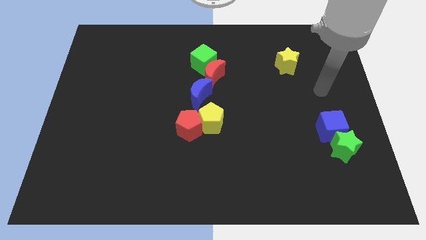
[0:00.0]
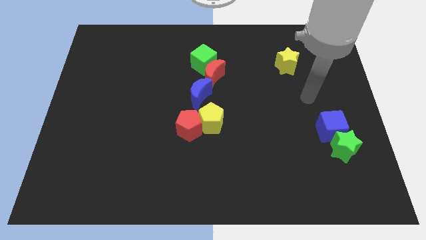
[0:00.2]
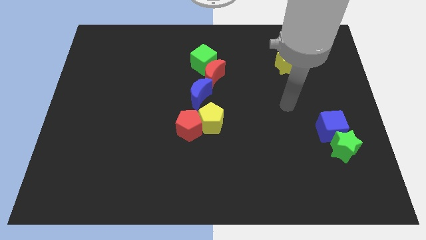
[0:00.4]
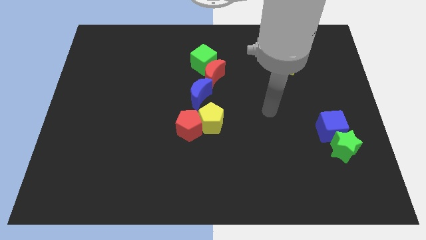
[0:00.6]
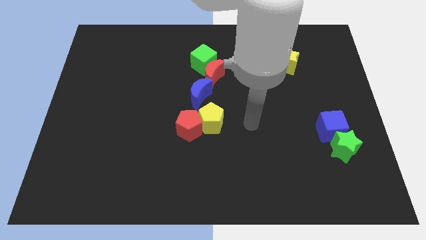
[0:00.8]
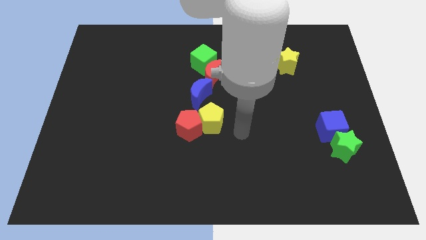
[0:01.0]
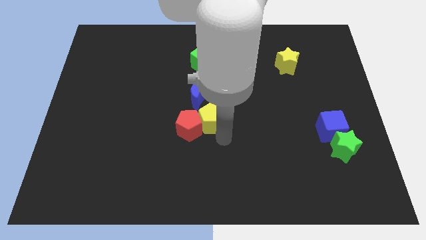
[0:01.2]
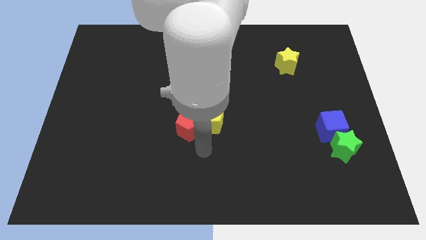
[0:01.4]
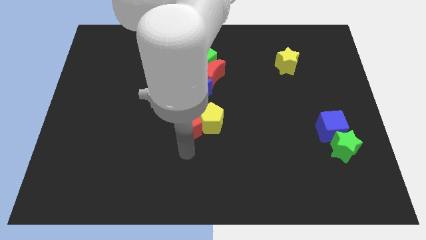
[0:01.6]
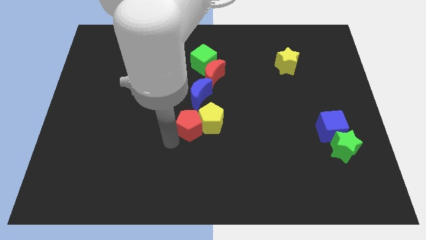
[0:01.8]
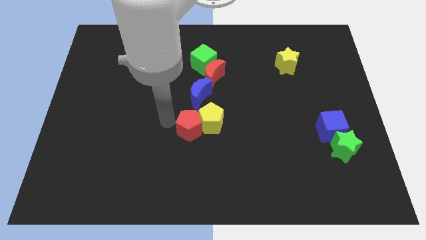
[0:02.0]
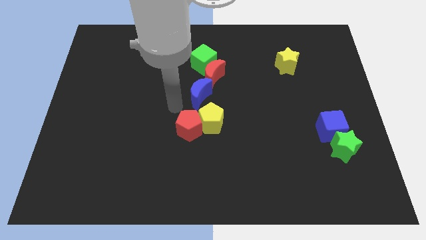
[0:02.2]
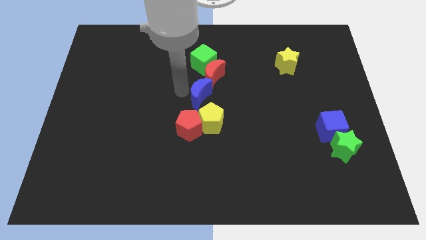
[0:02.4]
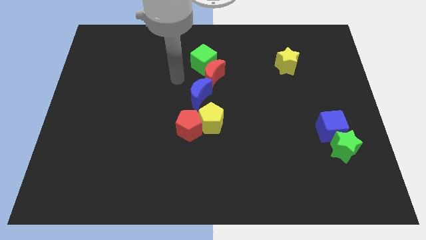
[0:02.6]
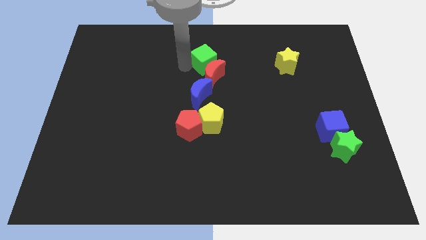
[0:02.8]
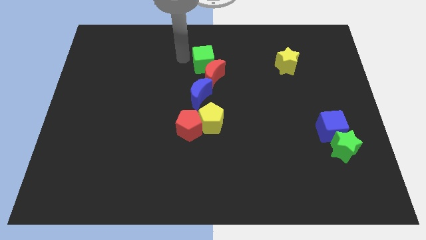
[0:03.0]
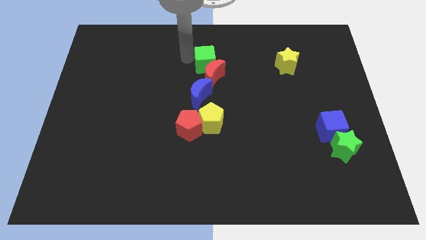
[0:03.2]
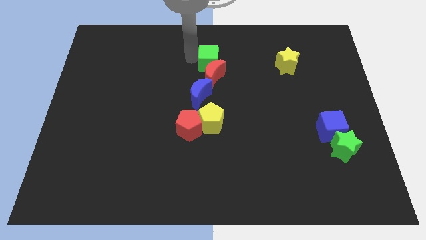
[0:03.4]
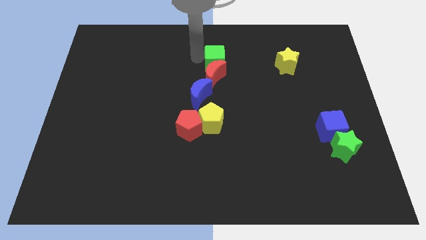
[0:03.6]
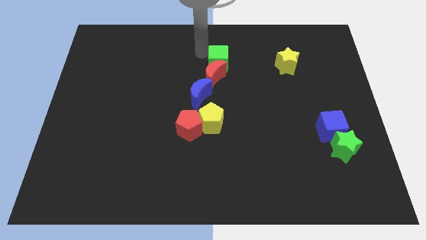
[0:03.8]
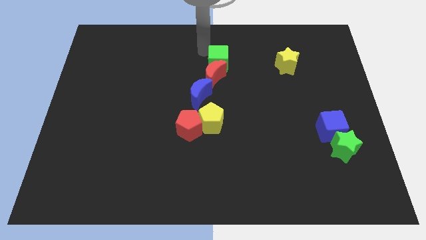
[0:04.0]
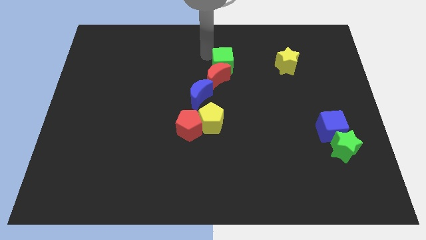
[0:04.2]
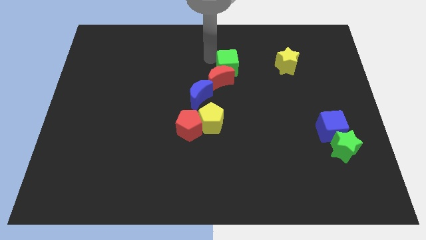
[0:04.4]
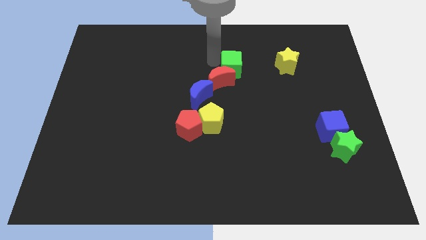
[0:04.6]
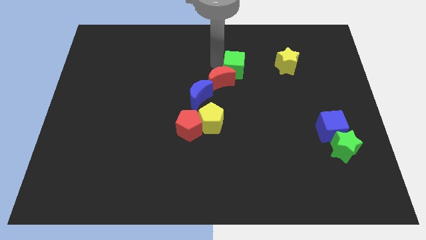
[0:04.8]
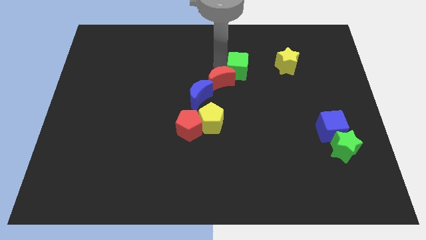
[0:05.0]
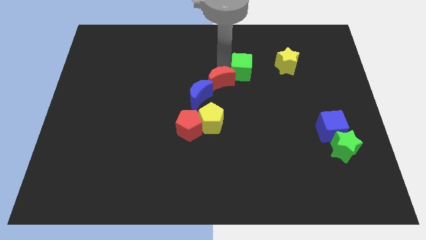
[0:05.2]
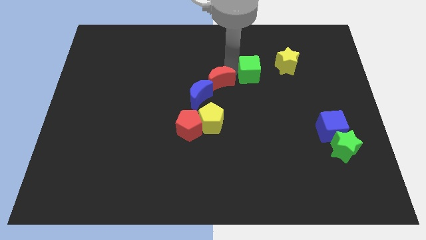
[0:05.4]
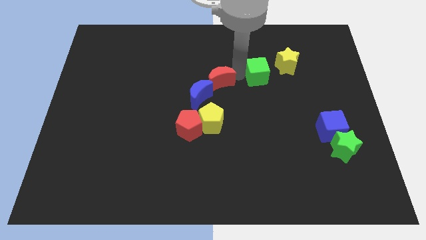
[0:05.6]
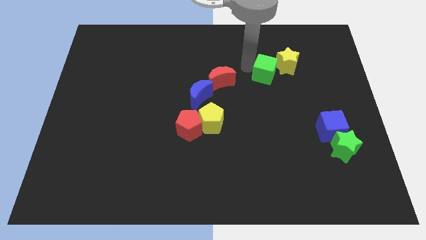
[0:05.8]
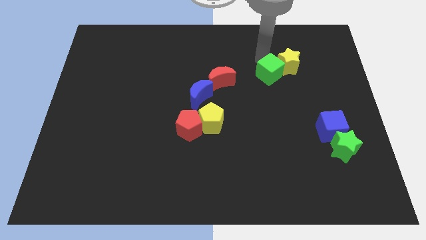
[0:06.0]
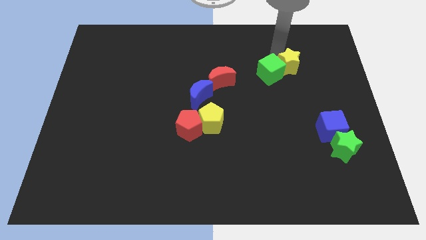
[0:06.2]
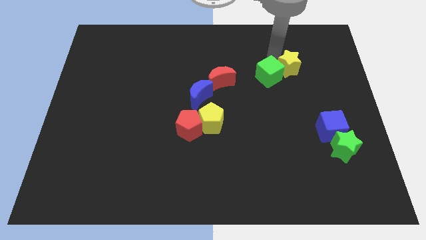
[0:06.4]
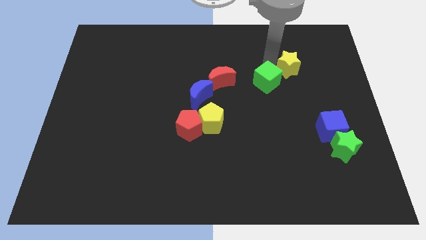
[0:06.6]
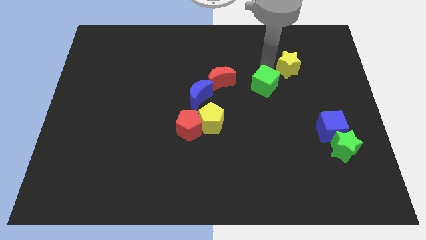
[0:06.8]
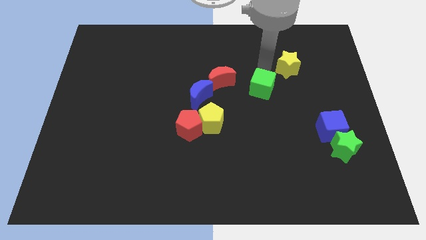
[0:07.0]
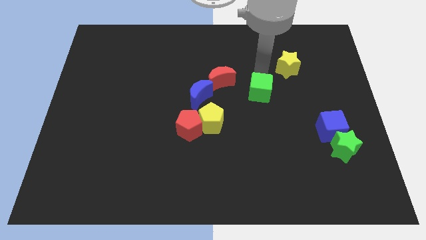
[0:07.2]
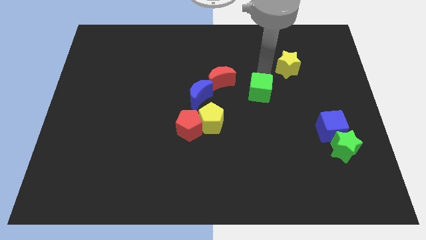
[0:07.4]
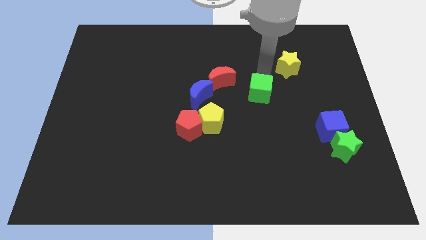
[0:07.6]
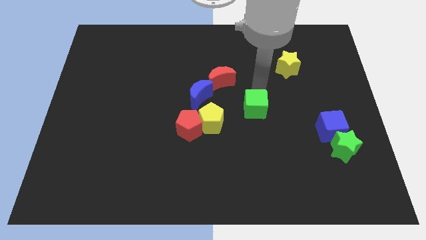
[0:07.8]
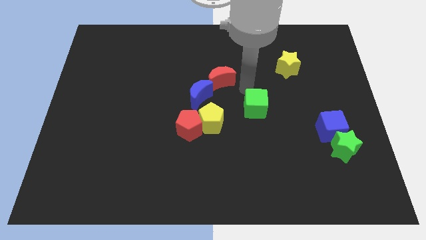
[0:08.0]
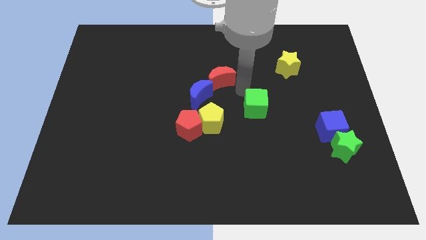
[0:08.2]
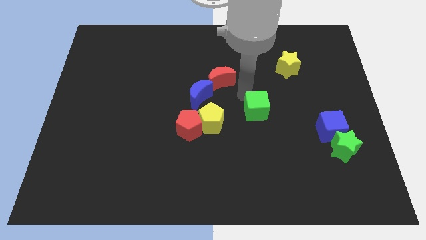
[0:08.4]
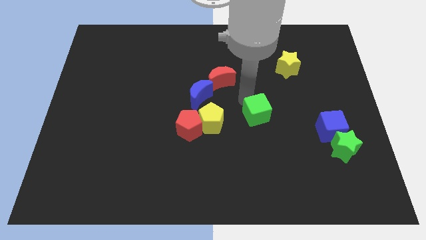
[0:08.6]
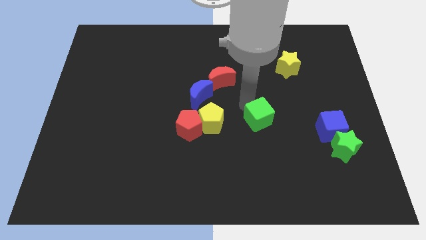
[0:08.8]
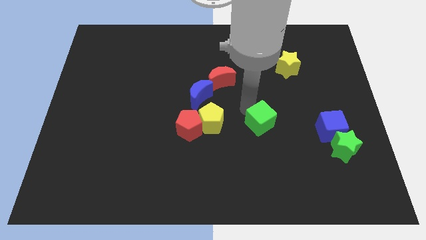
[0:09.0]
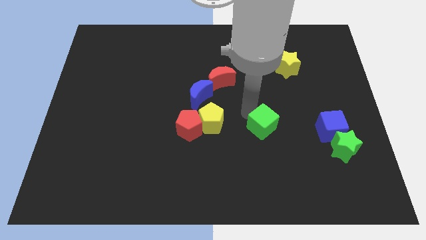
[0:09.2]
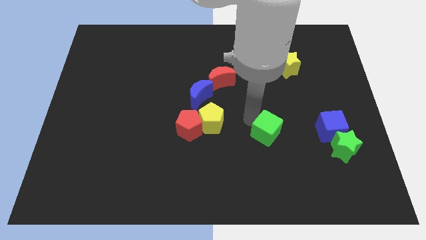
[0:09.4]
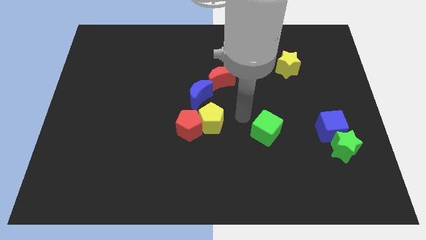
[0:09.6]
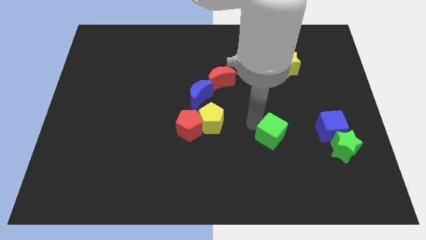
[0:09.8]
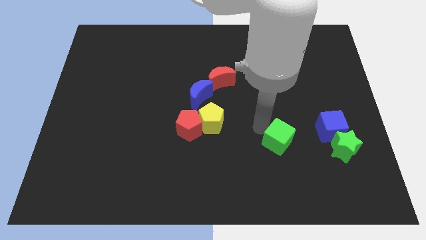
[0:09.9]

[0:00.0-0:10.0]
push the green cube left of the green star

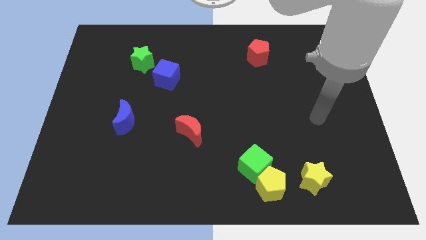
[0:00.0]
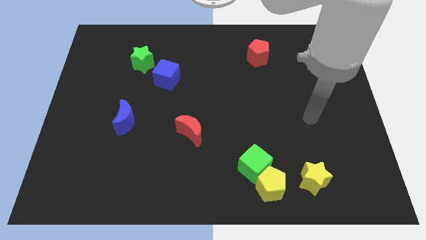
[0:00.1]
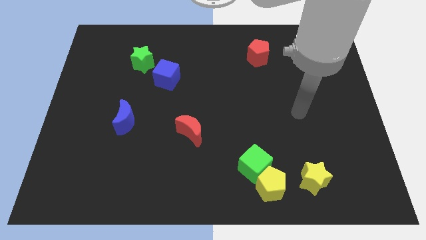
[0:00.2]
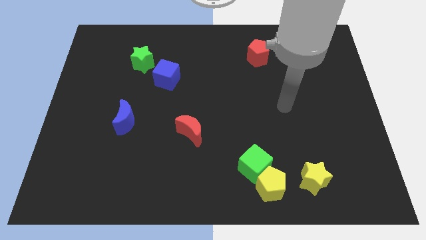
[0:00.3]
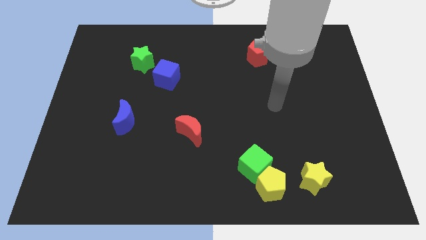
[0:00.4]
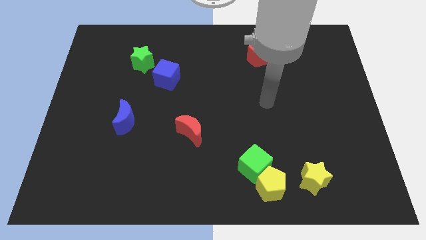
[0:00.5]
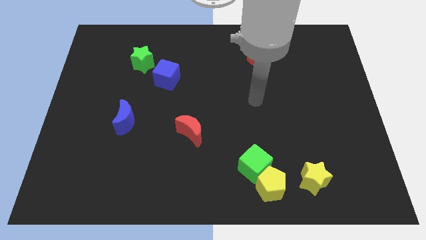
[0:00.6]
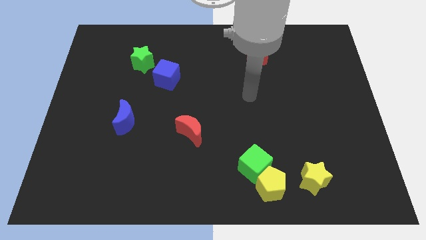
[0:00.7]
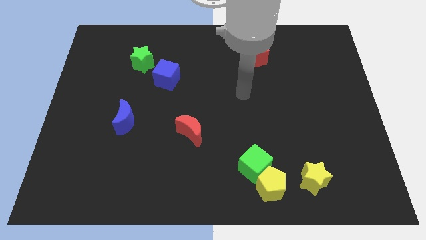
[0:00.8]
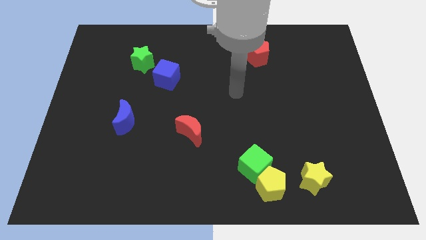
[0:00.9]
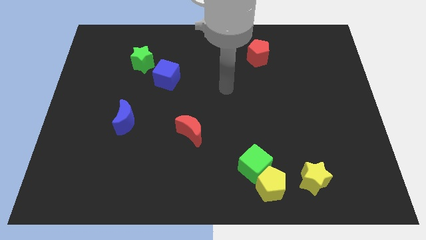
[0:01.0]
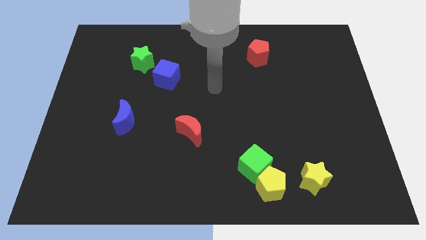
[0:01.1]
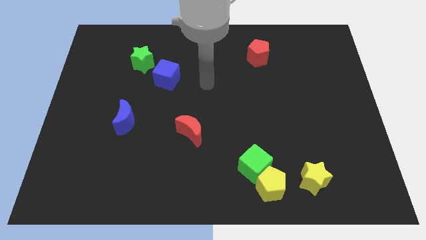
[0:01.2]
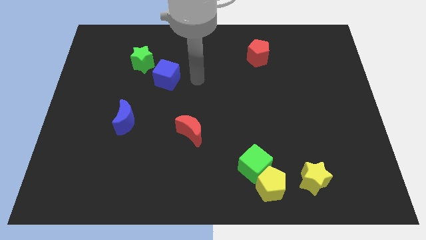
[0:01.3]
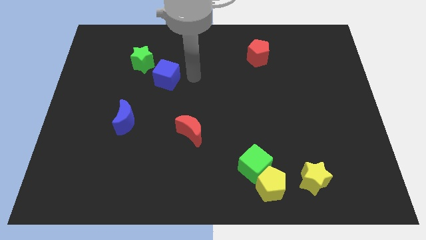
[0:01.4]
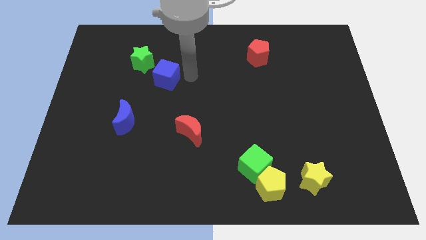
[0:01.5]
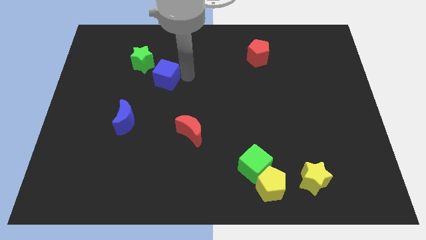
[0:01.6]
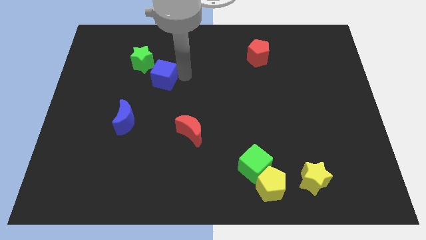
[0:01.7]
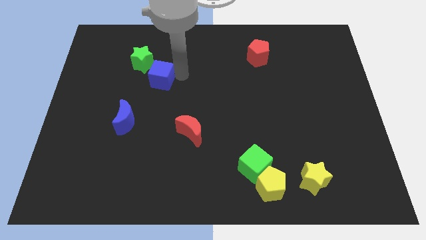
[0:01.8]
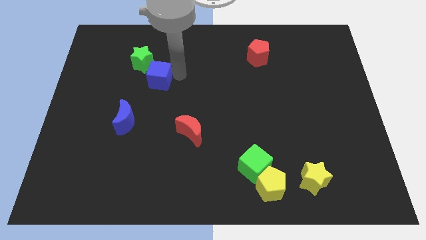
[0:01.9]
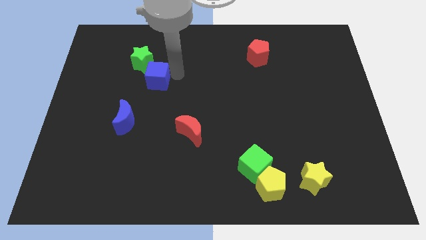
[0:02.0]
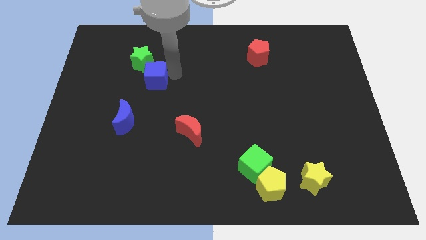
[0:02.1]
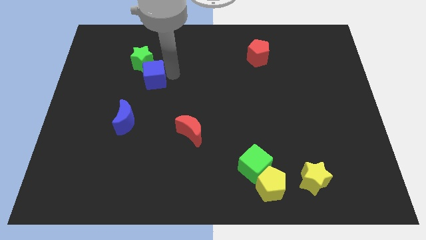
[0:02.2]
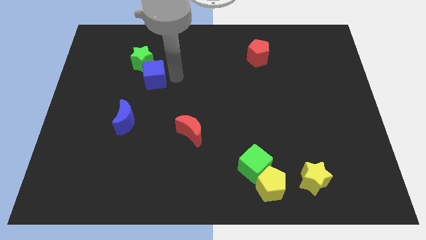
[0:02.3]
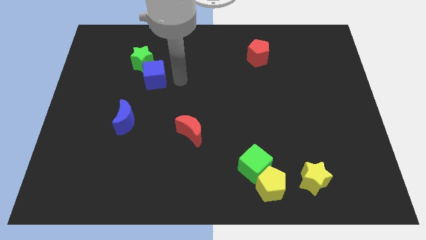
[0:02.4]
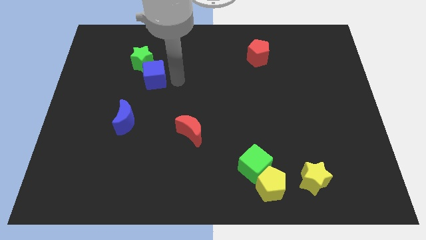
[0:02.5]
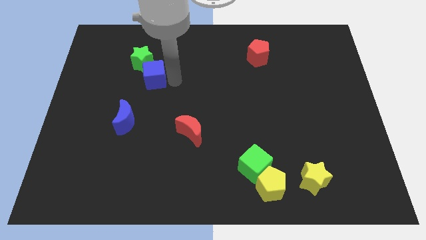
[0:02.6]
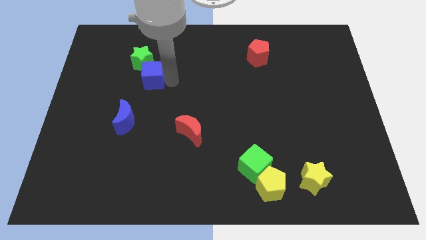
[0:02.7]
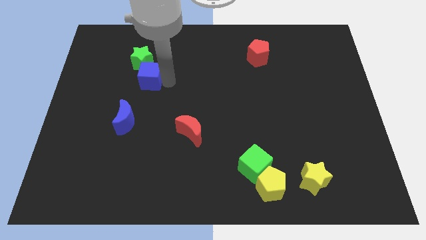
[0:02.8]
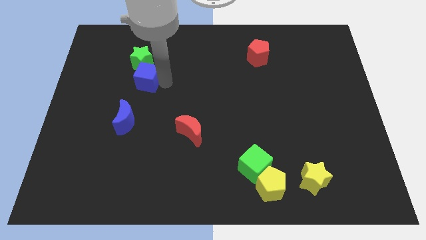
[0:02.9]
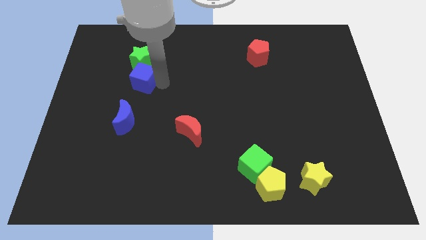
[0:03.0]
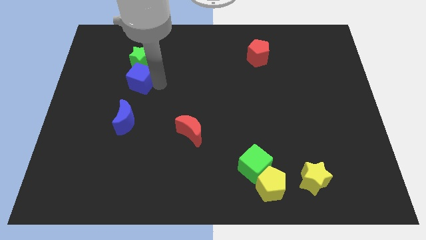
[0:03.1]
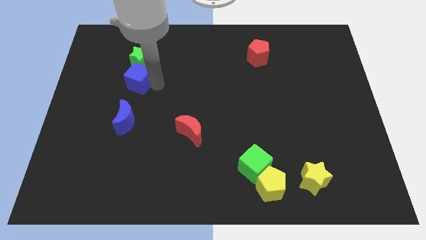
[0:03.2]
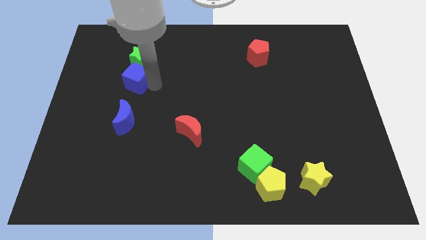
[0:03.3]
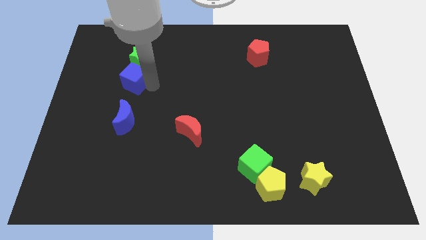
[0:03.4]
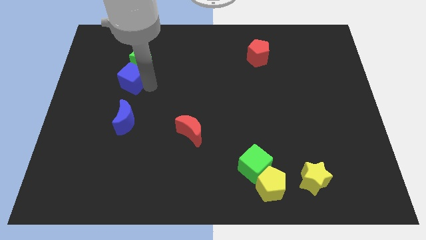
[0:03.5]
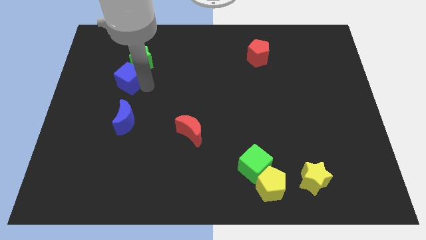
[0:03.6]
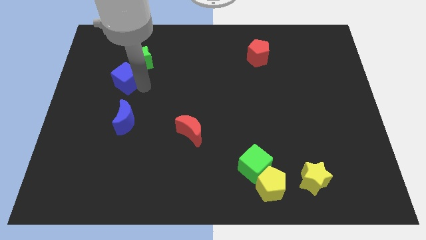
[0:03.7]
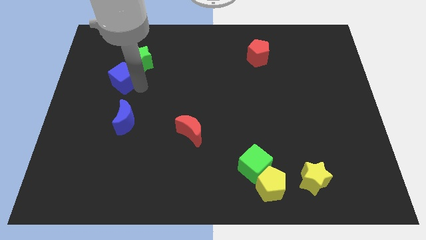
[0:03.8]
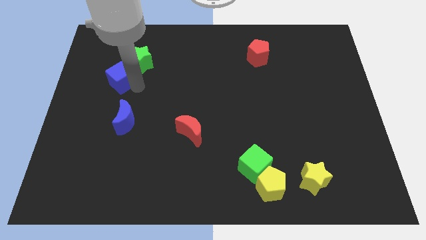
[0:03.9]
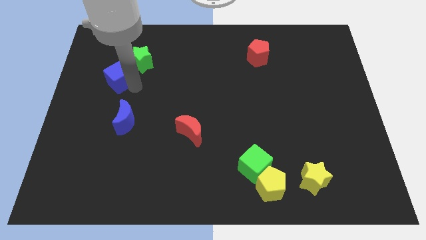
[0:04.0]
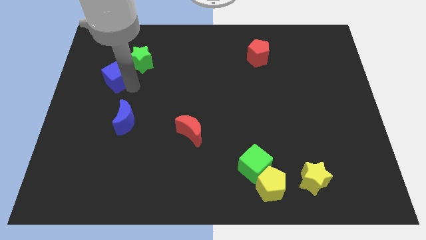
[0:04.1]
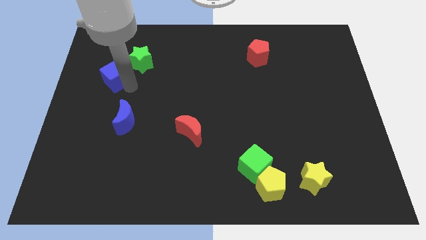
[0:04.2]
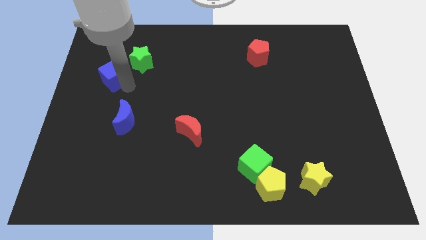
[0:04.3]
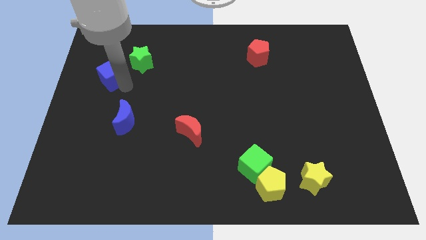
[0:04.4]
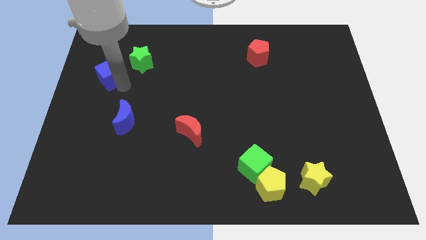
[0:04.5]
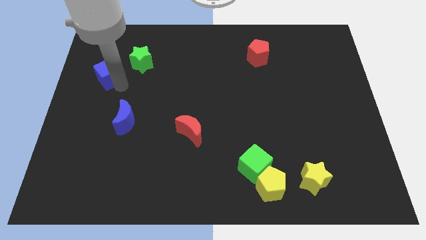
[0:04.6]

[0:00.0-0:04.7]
slide the blue cube left of the green star
